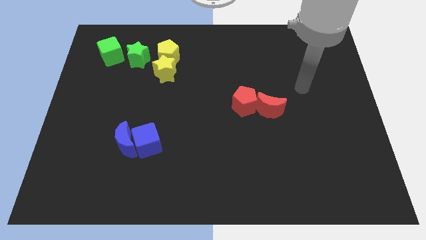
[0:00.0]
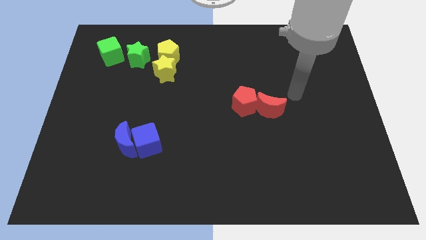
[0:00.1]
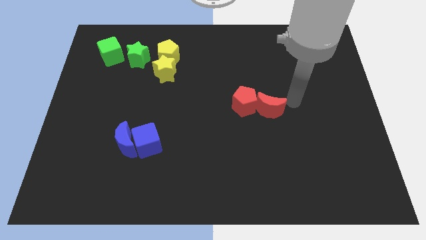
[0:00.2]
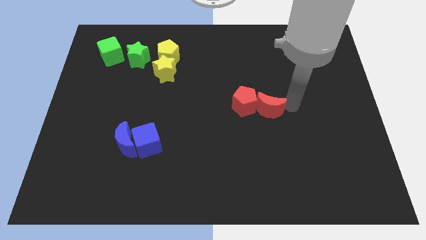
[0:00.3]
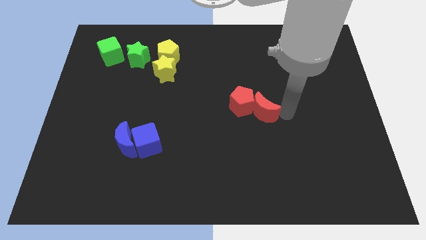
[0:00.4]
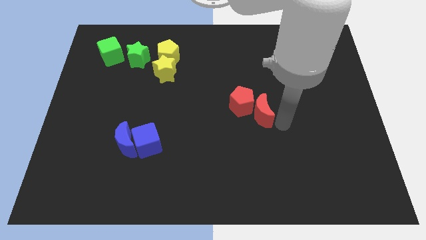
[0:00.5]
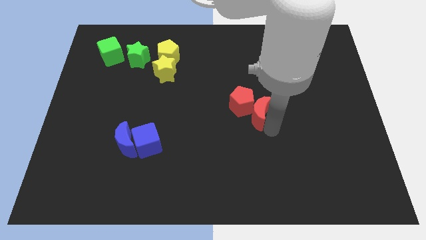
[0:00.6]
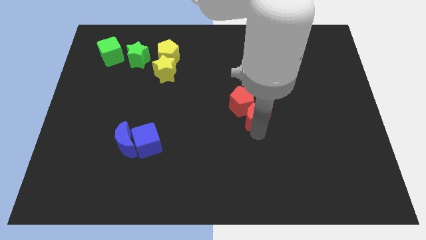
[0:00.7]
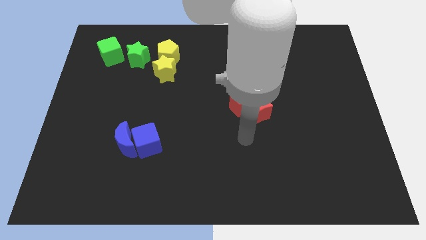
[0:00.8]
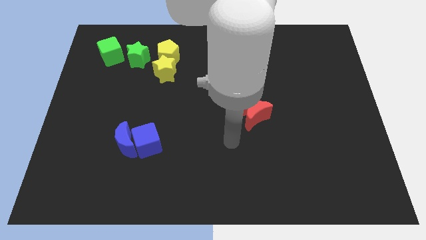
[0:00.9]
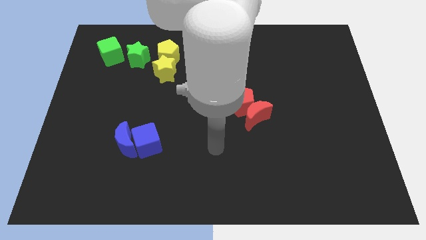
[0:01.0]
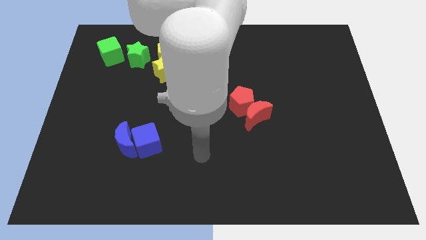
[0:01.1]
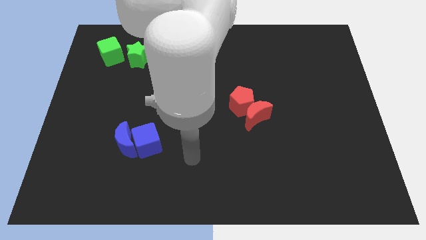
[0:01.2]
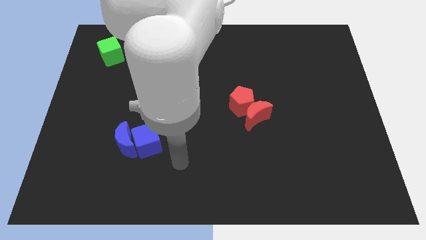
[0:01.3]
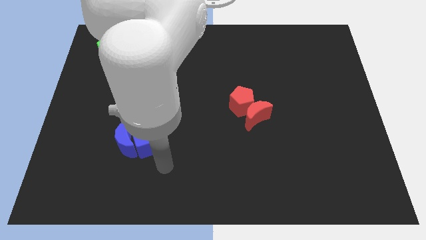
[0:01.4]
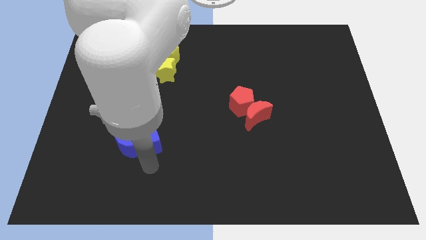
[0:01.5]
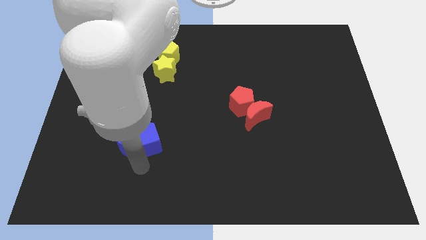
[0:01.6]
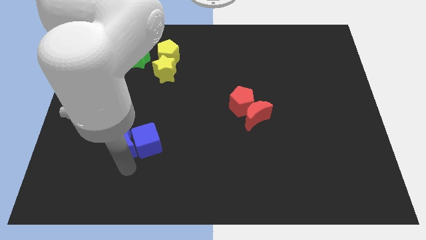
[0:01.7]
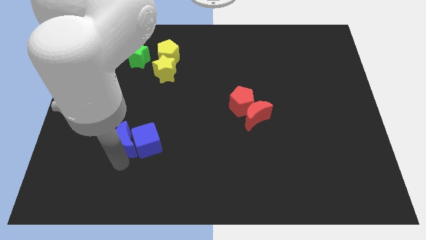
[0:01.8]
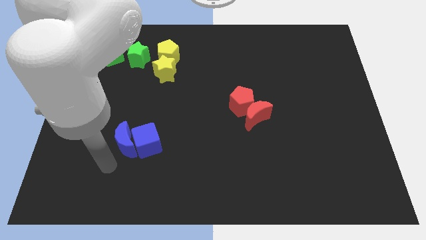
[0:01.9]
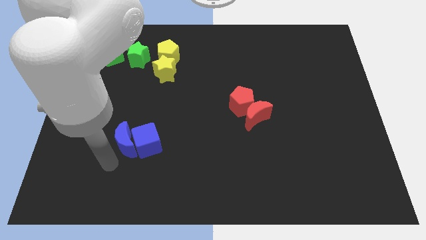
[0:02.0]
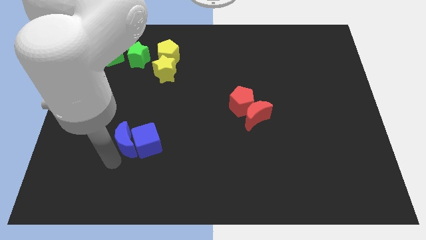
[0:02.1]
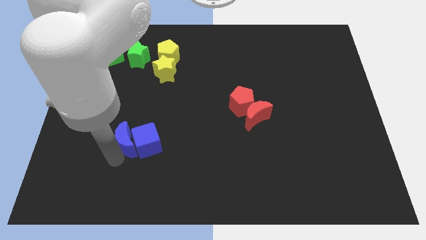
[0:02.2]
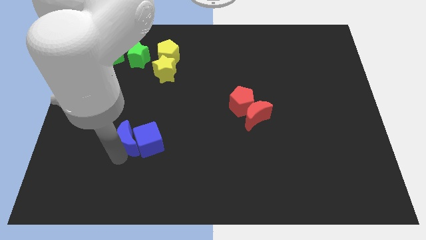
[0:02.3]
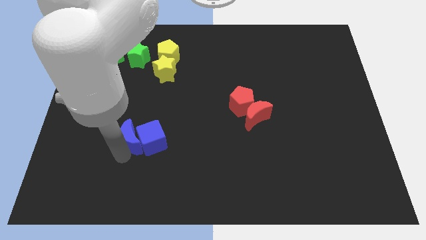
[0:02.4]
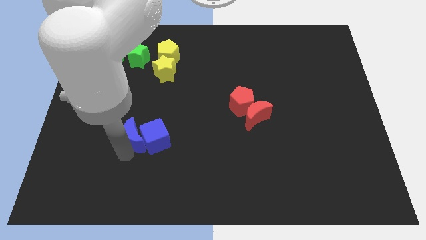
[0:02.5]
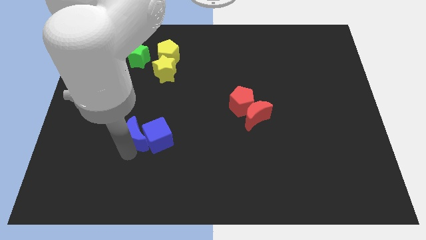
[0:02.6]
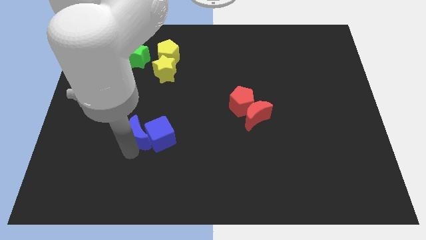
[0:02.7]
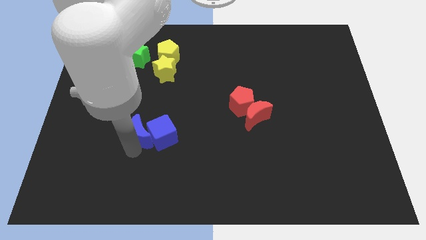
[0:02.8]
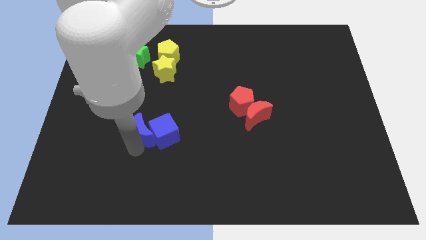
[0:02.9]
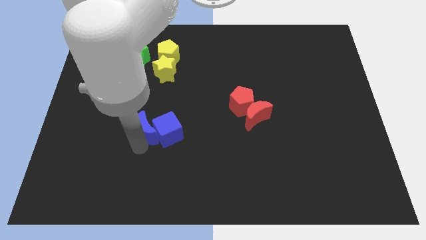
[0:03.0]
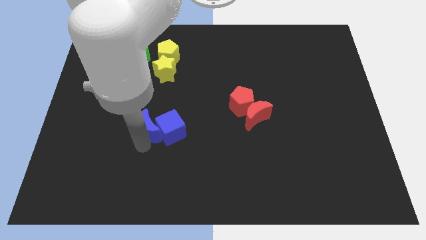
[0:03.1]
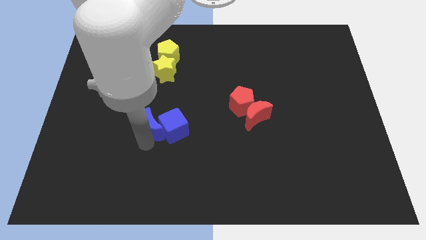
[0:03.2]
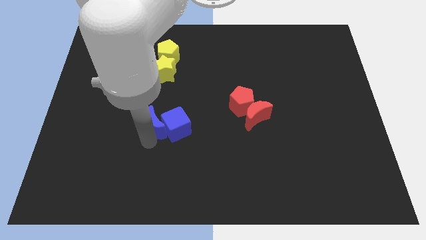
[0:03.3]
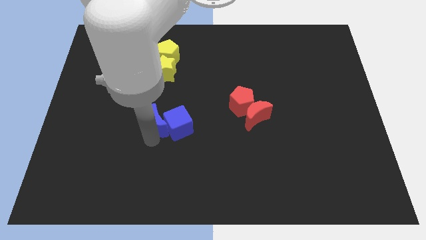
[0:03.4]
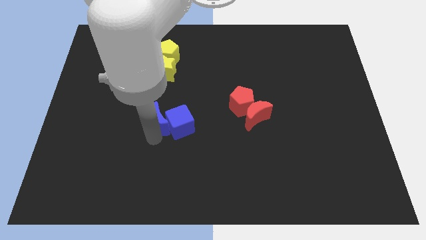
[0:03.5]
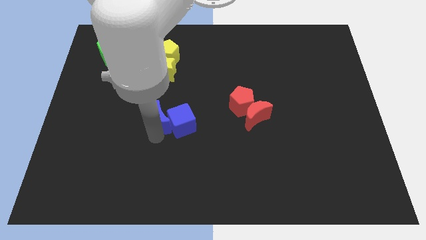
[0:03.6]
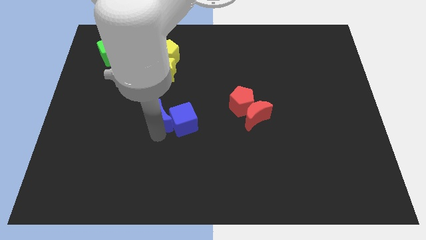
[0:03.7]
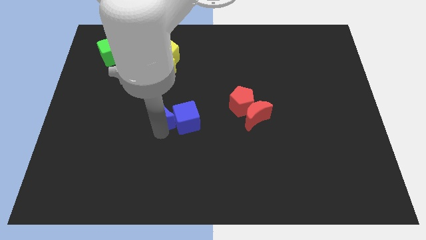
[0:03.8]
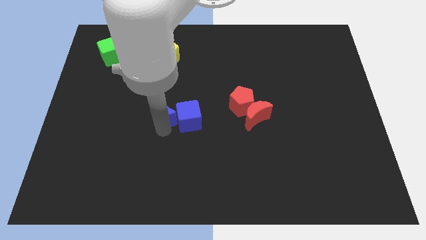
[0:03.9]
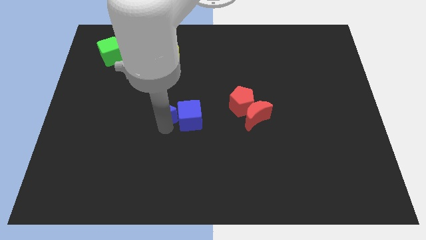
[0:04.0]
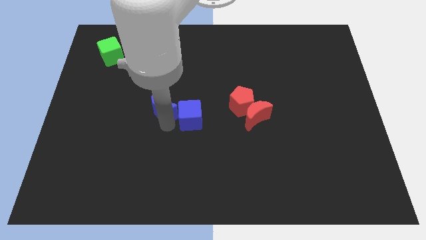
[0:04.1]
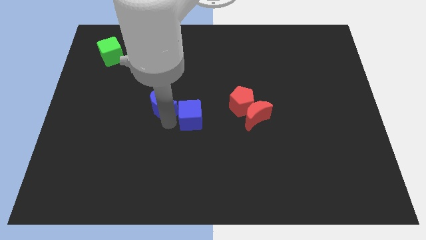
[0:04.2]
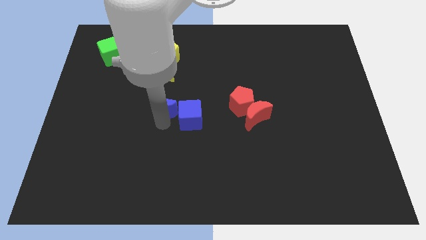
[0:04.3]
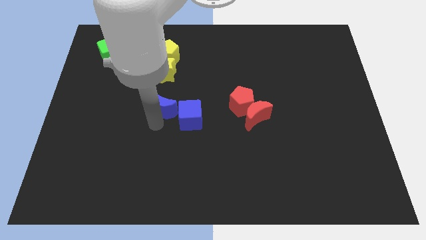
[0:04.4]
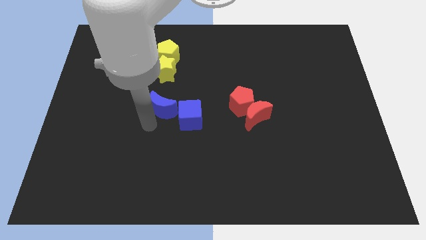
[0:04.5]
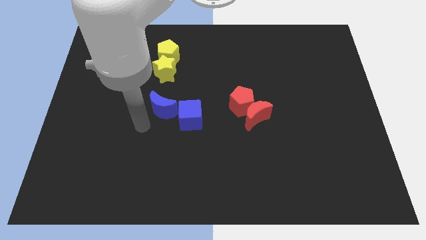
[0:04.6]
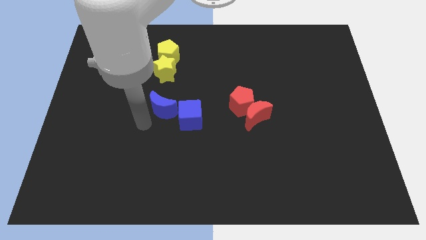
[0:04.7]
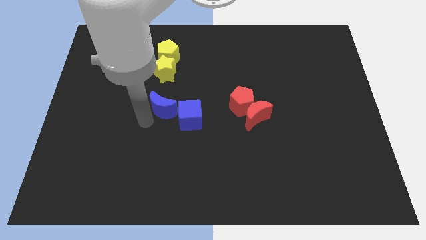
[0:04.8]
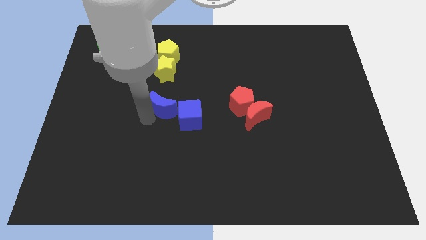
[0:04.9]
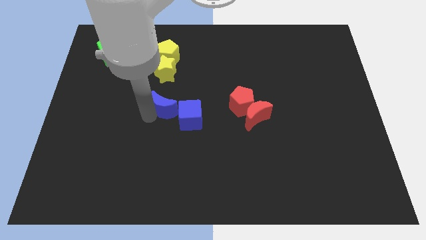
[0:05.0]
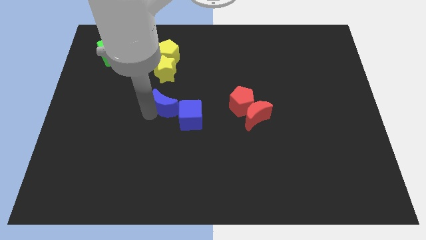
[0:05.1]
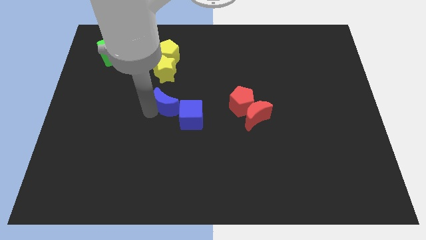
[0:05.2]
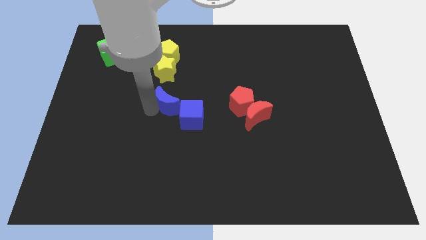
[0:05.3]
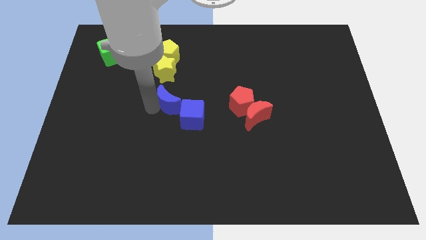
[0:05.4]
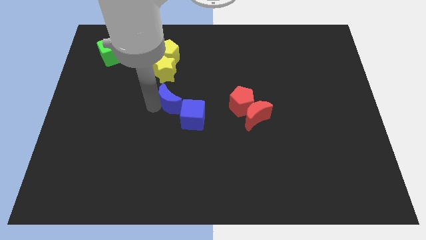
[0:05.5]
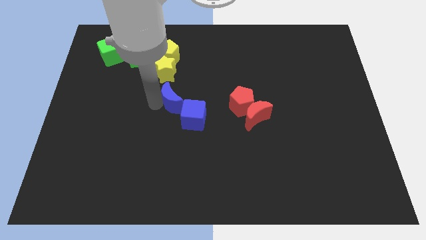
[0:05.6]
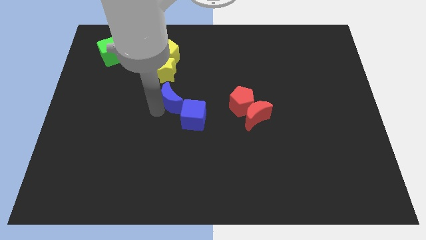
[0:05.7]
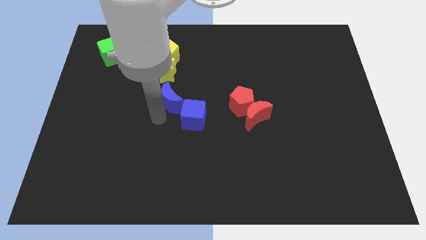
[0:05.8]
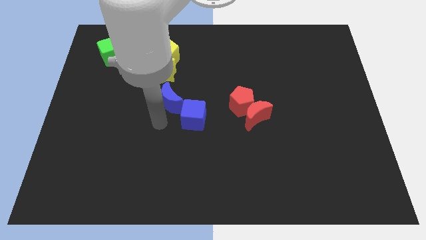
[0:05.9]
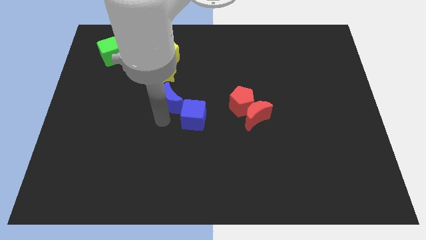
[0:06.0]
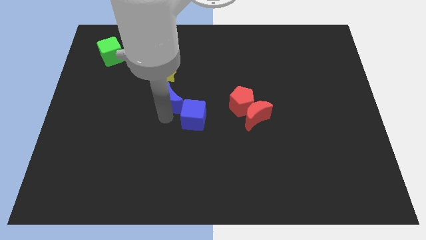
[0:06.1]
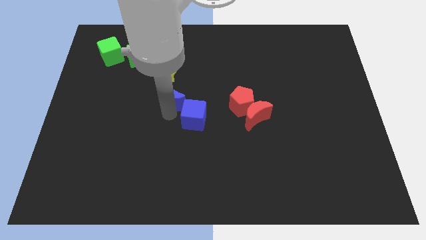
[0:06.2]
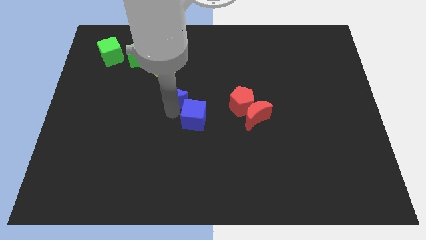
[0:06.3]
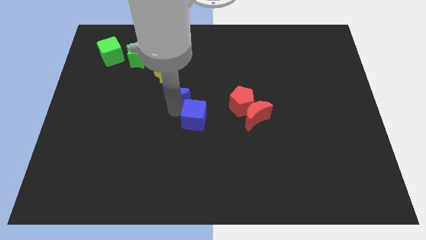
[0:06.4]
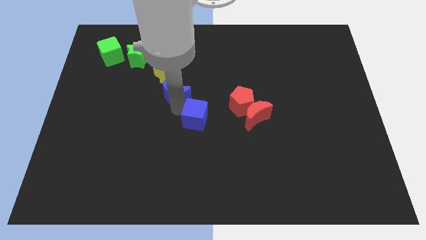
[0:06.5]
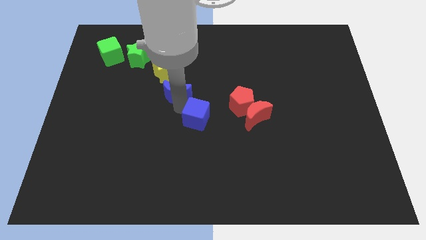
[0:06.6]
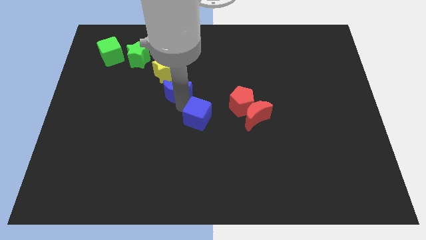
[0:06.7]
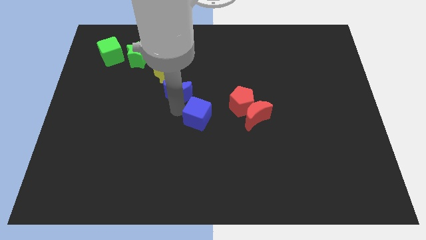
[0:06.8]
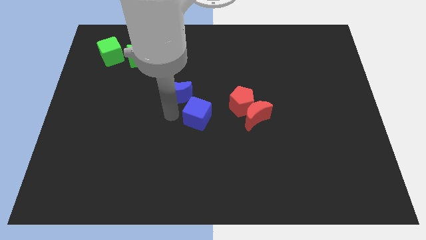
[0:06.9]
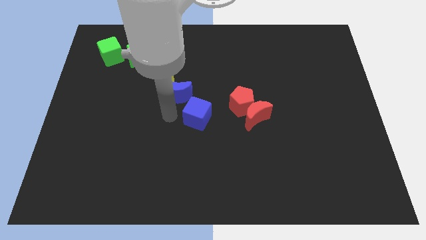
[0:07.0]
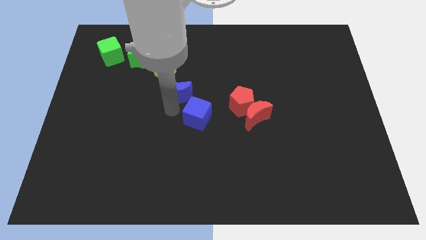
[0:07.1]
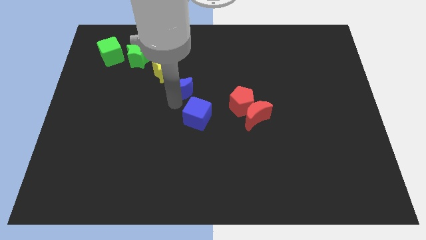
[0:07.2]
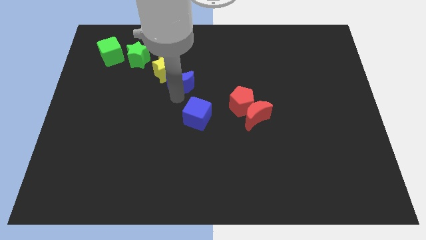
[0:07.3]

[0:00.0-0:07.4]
push the blue moon to the bottom right side of the yellow pentagon
